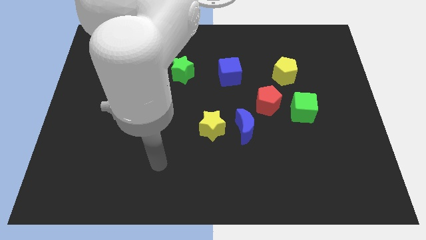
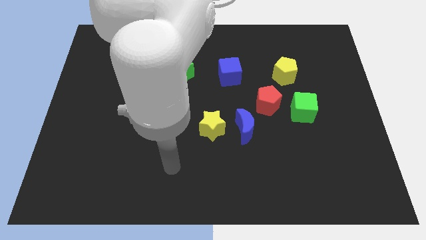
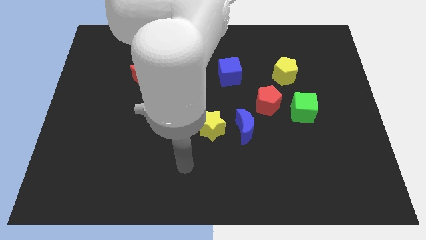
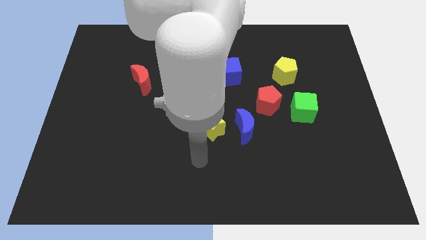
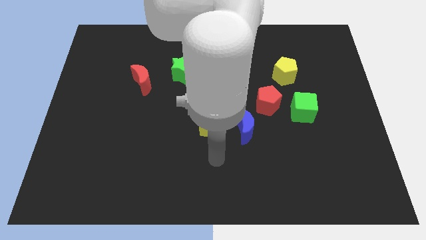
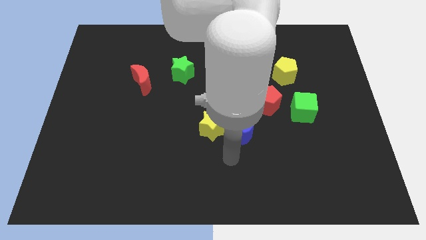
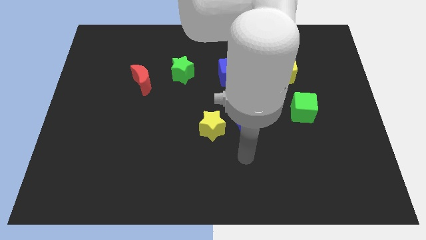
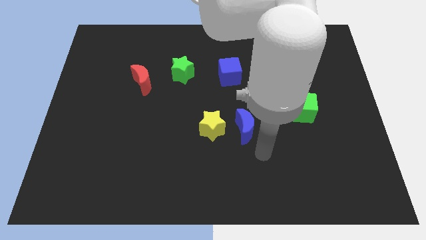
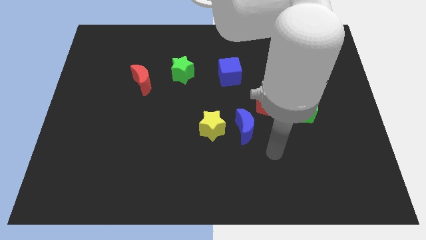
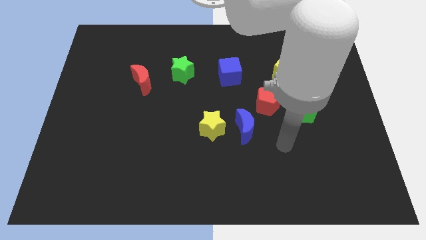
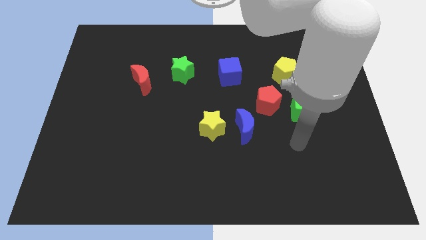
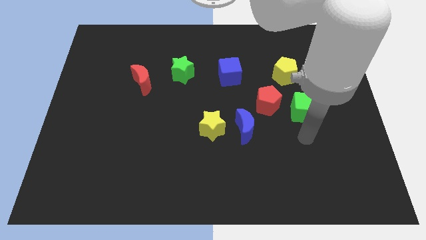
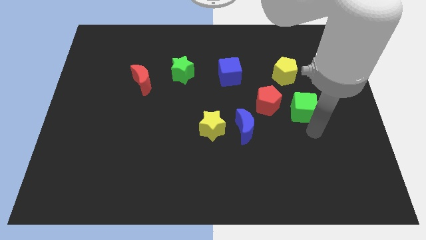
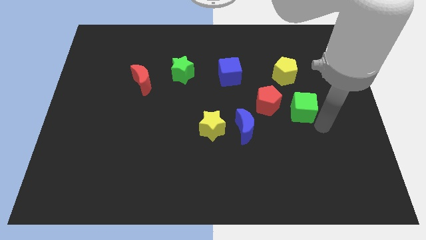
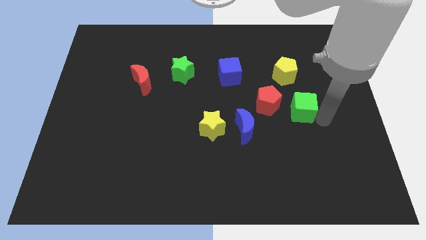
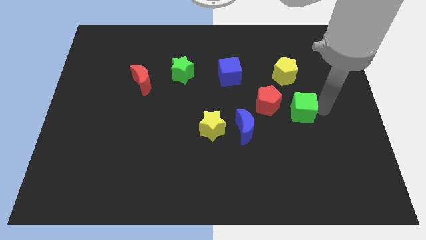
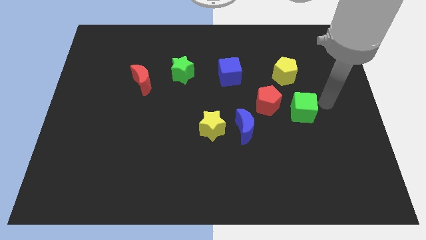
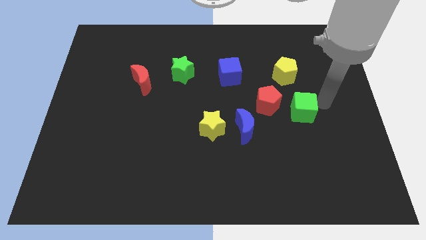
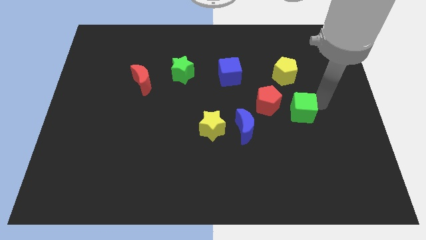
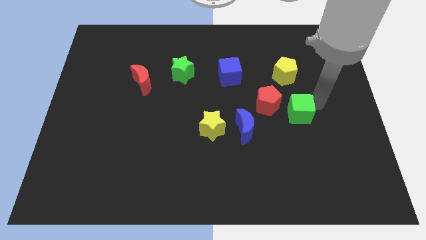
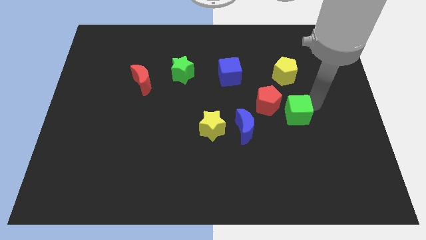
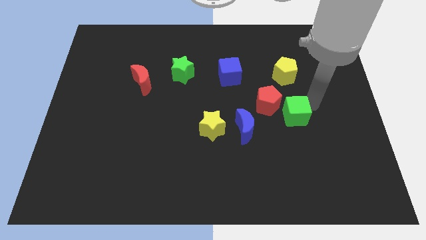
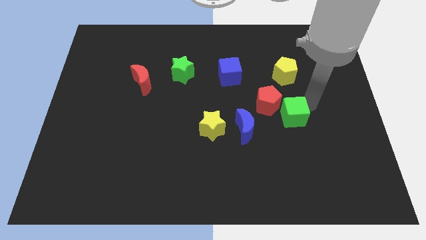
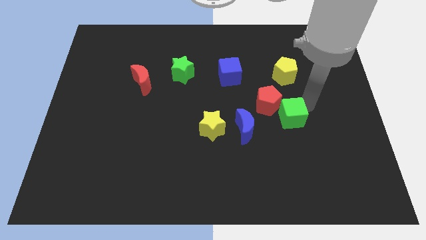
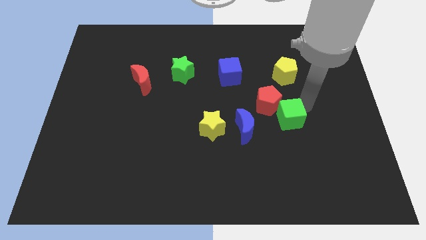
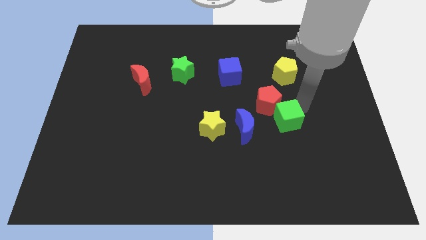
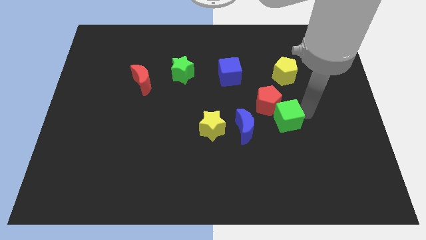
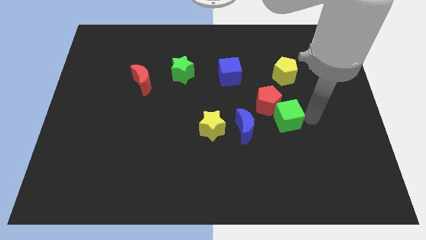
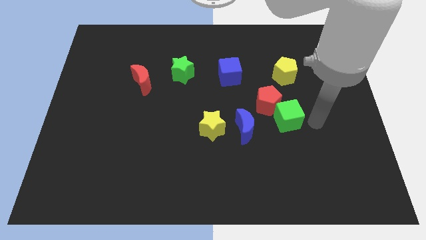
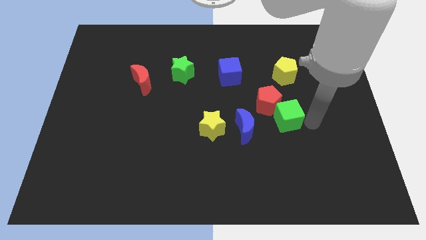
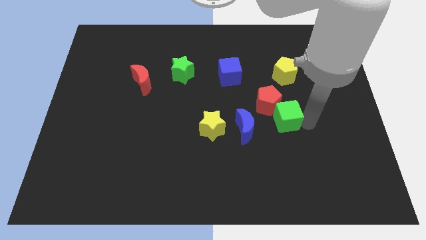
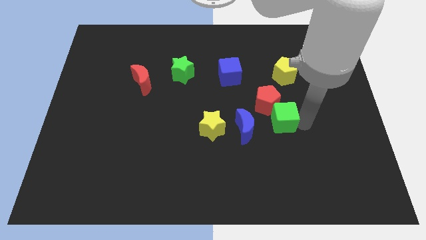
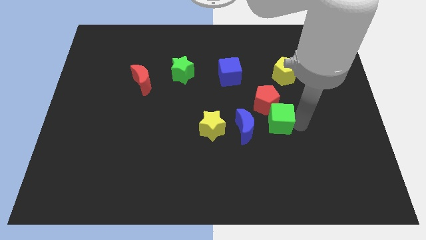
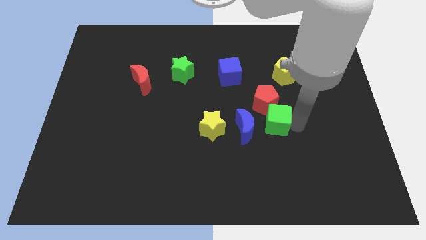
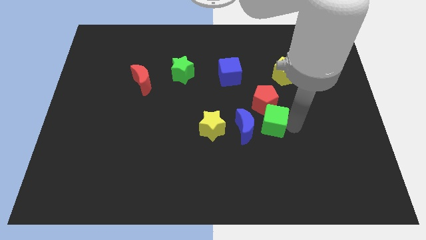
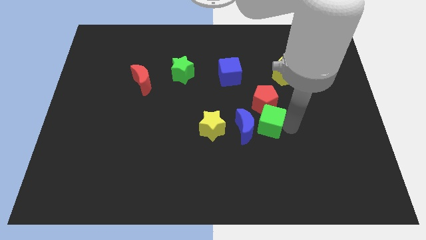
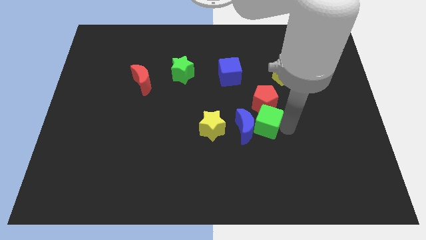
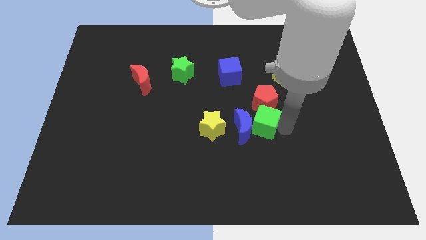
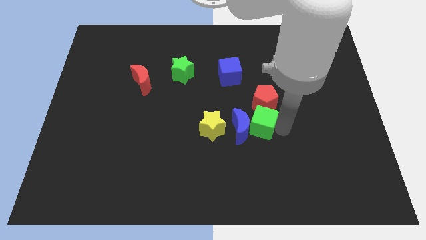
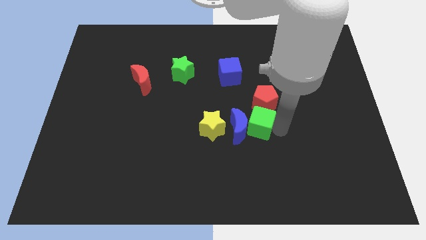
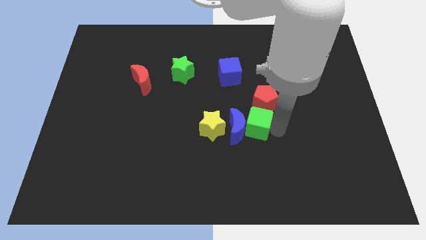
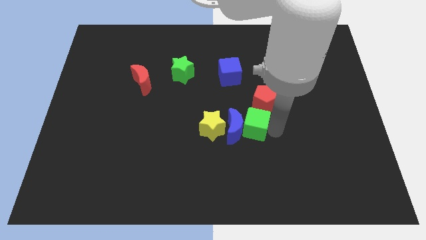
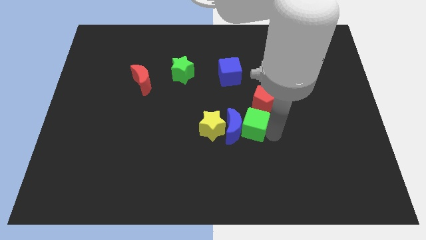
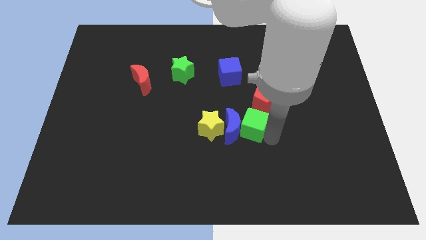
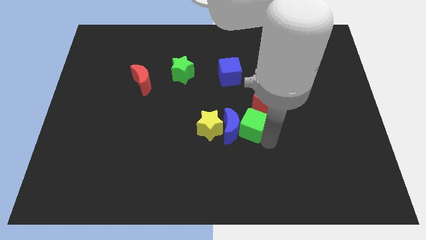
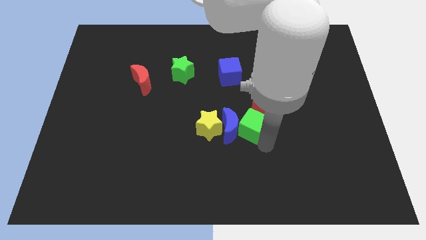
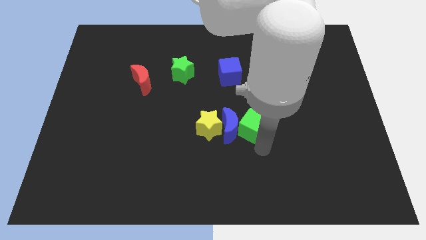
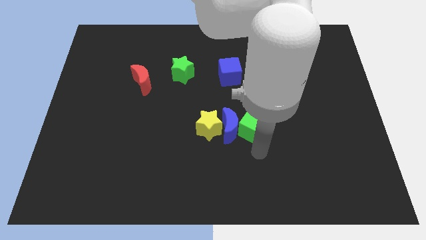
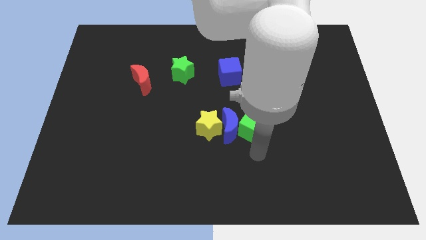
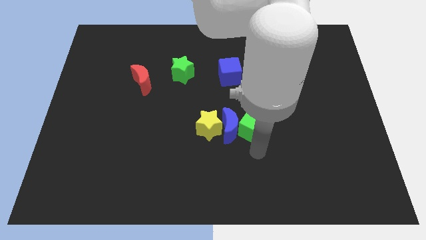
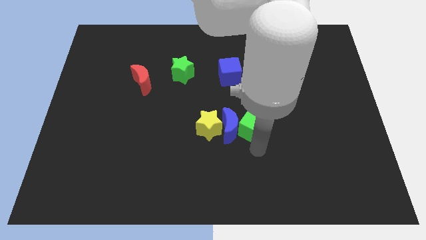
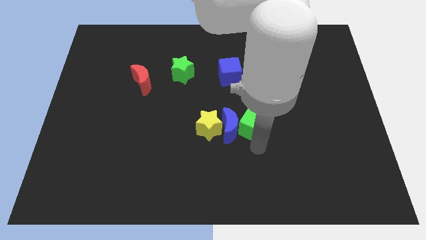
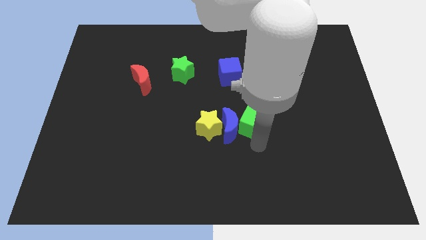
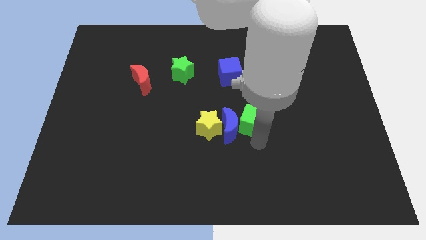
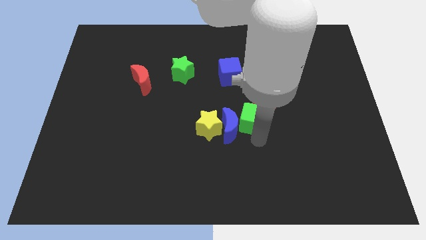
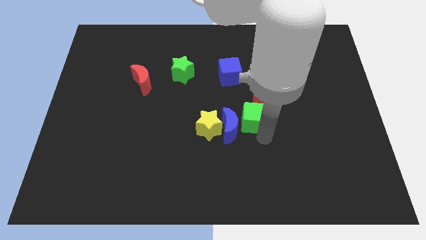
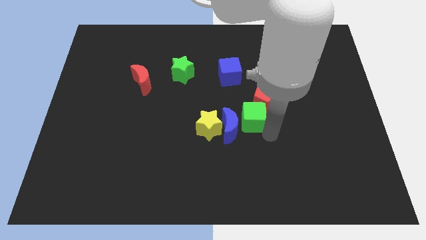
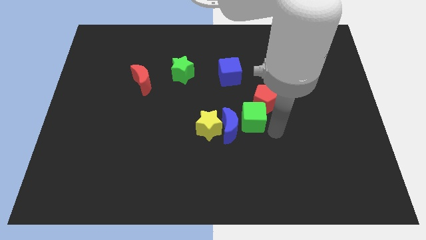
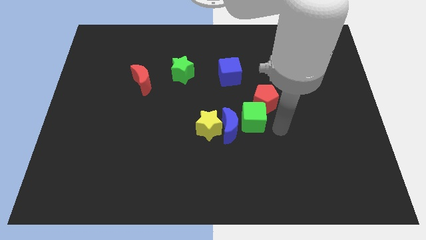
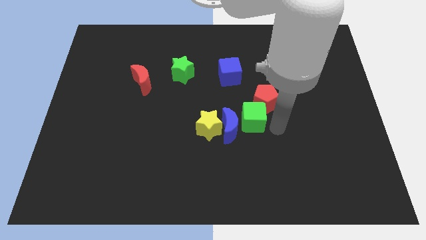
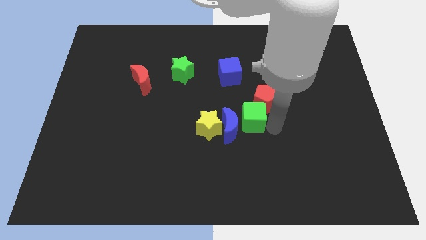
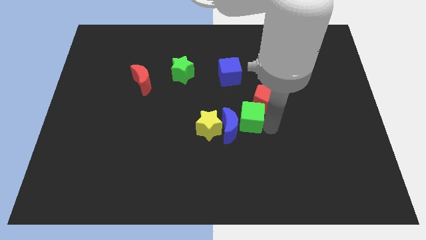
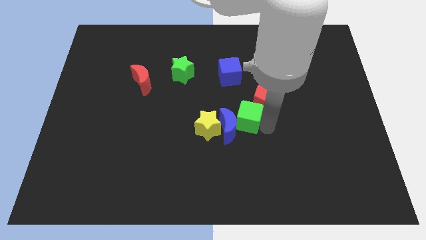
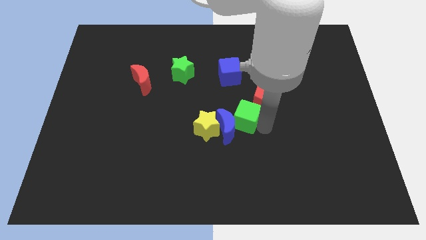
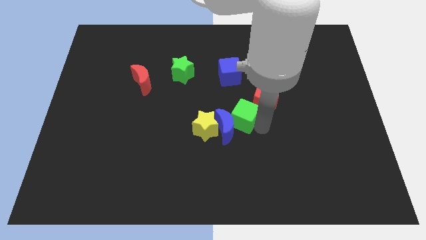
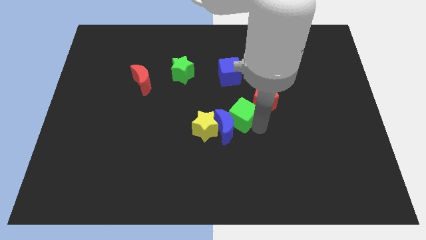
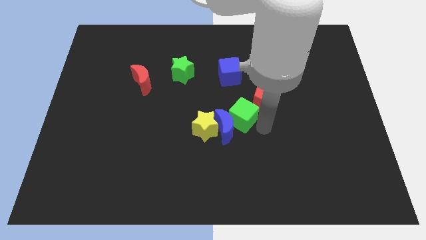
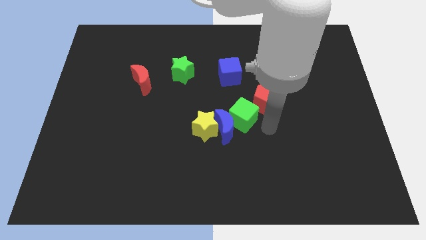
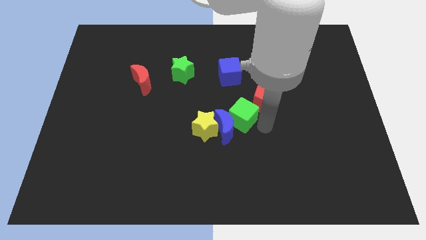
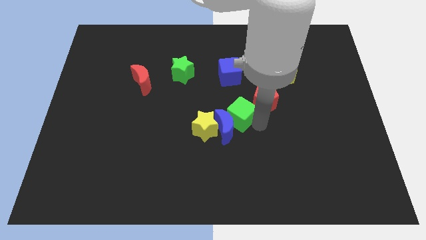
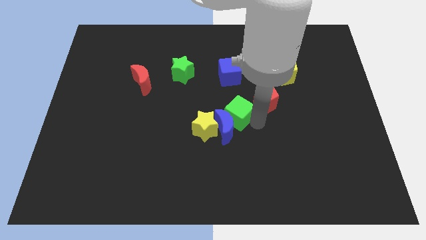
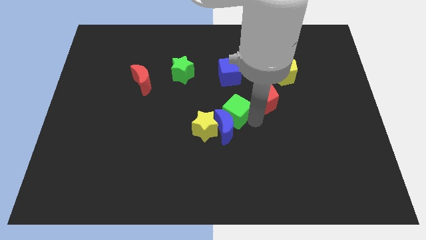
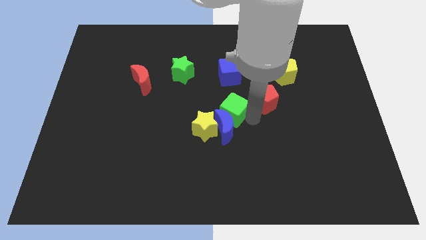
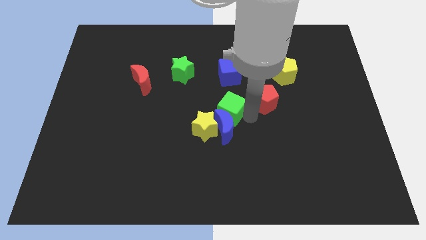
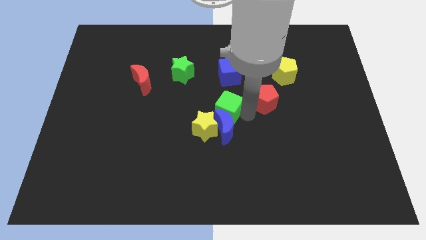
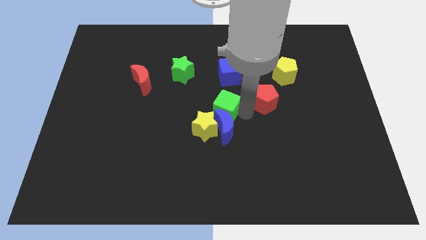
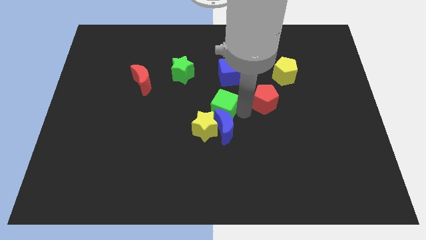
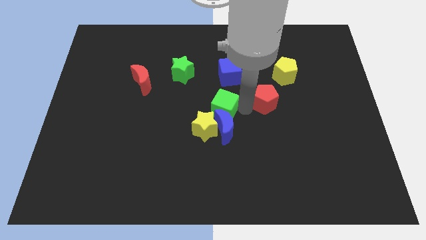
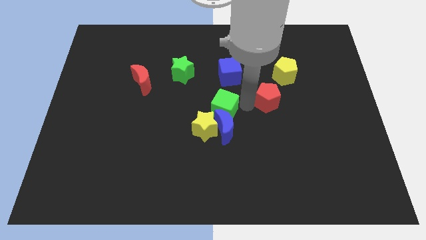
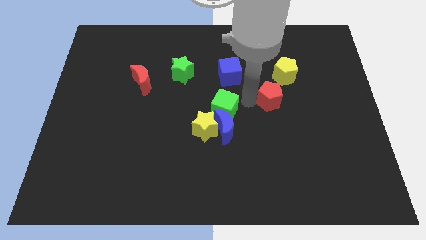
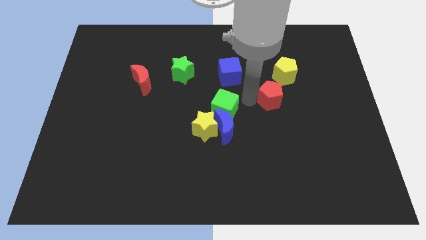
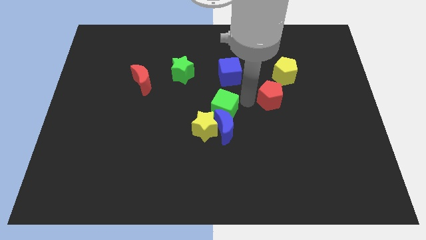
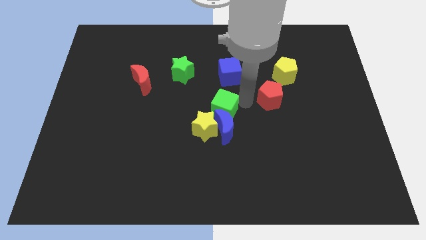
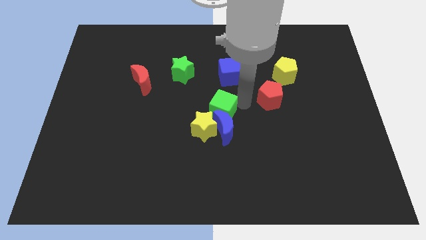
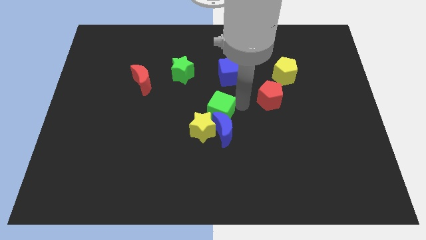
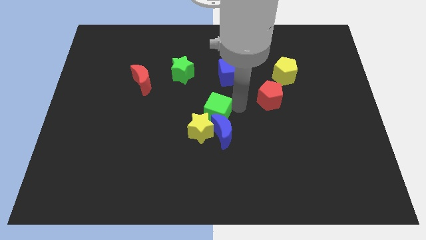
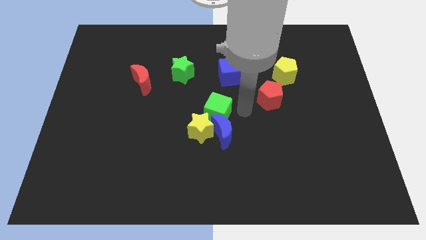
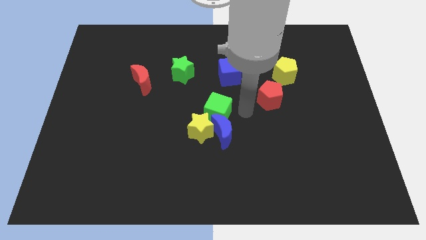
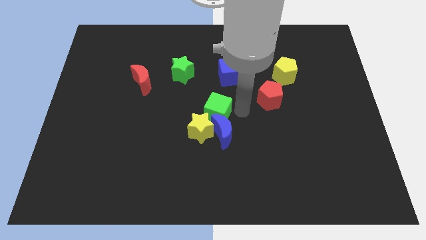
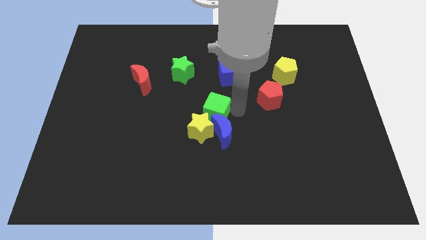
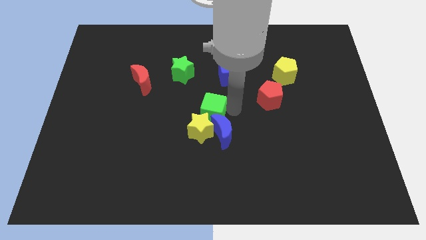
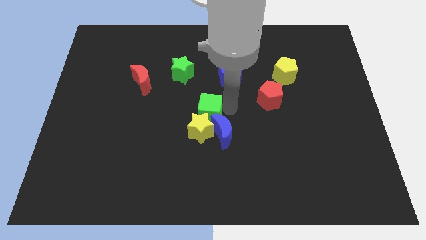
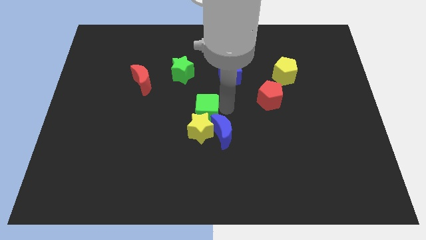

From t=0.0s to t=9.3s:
put the green cube to the top left of the yellow star
